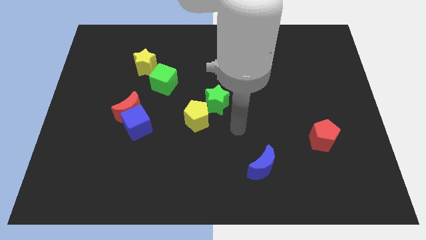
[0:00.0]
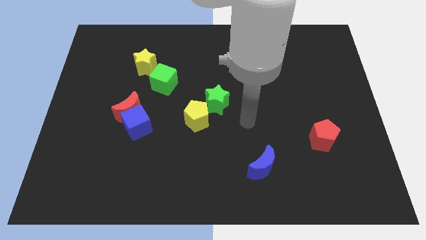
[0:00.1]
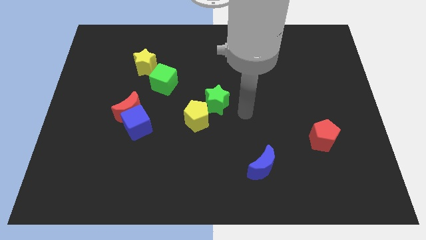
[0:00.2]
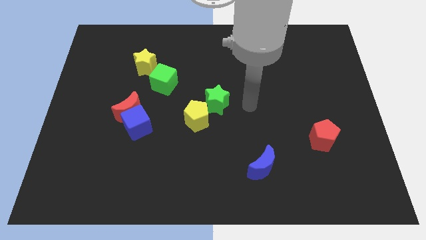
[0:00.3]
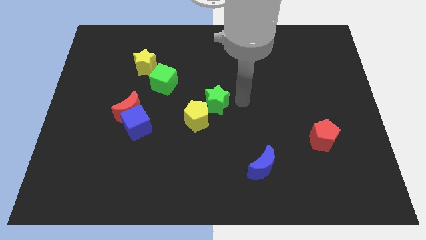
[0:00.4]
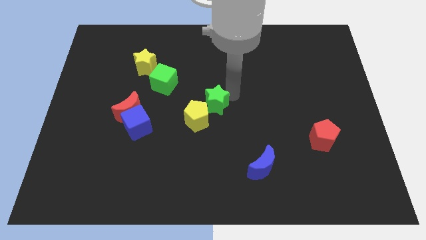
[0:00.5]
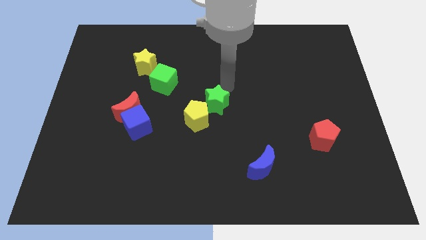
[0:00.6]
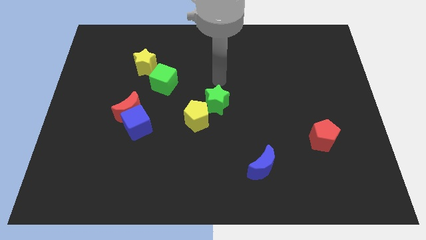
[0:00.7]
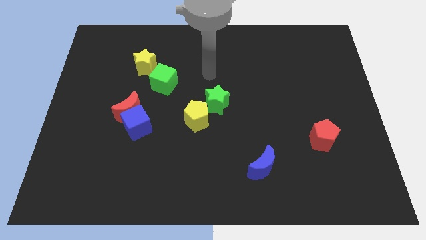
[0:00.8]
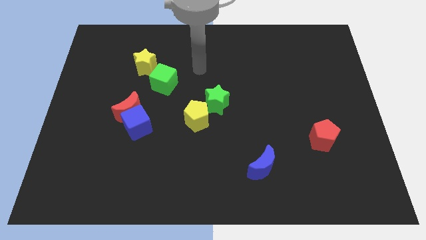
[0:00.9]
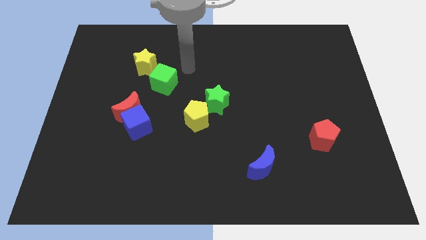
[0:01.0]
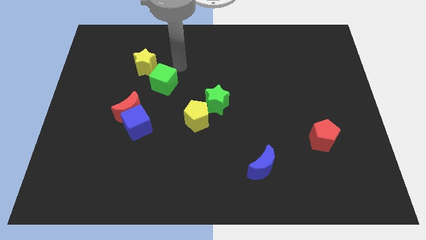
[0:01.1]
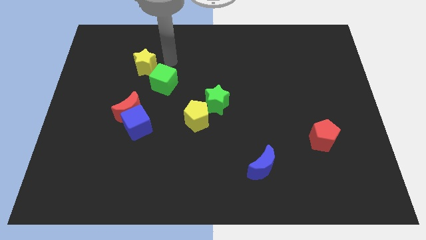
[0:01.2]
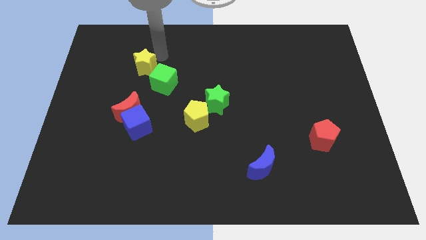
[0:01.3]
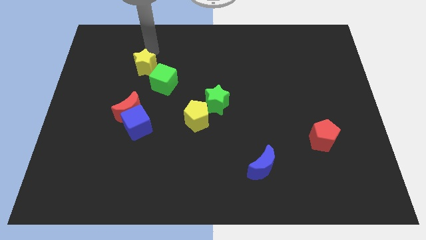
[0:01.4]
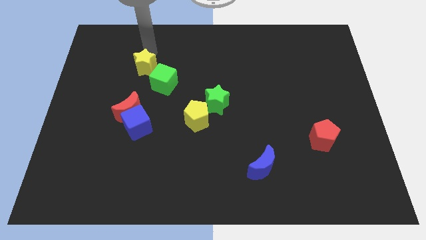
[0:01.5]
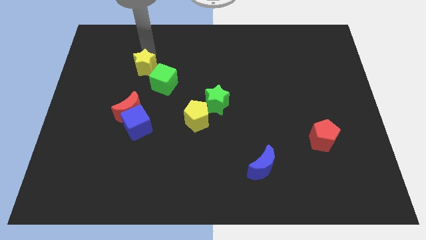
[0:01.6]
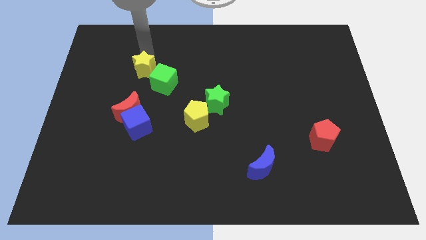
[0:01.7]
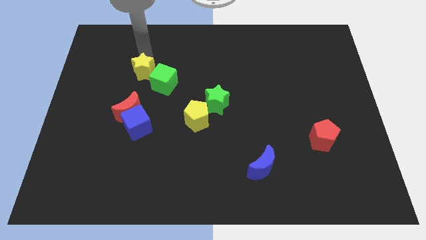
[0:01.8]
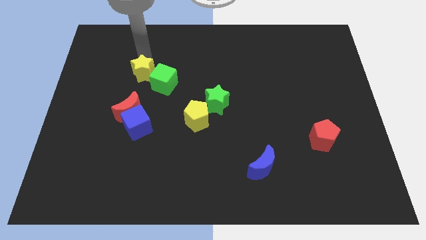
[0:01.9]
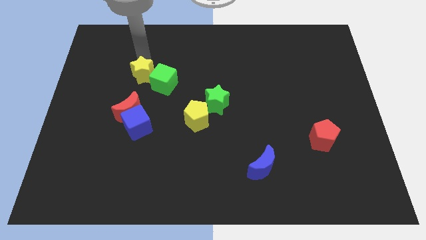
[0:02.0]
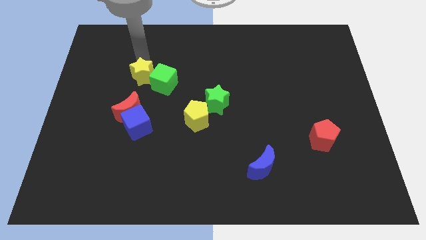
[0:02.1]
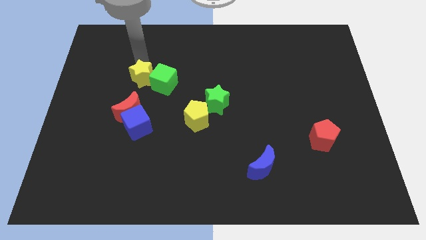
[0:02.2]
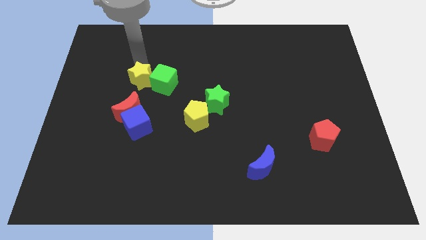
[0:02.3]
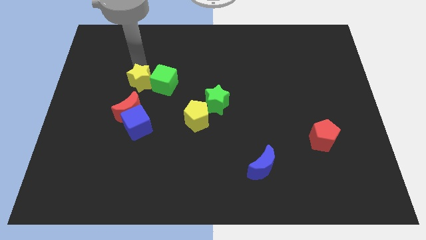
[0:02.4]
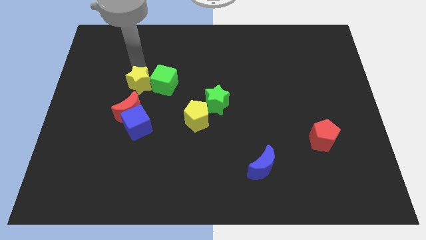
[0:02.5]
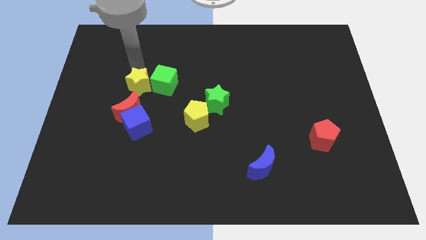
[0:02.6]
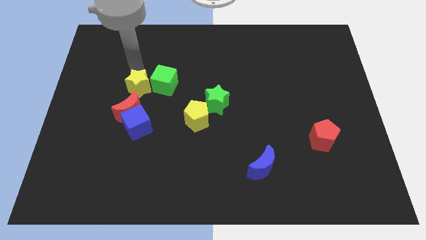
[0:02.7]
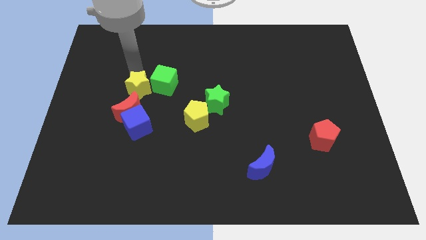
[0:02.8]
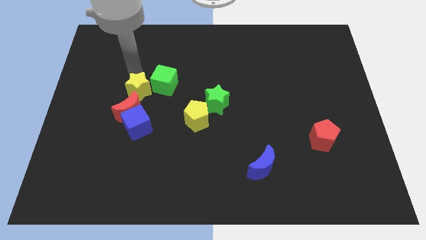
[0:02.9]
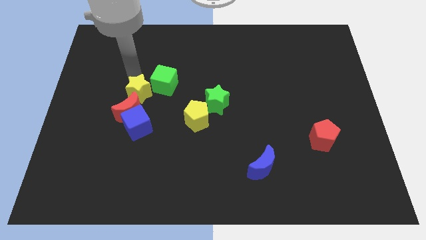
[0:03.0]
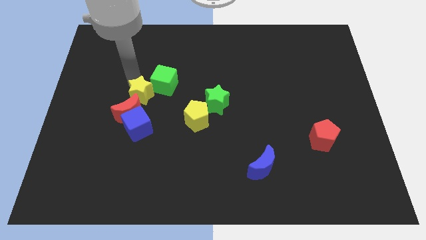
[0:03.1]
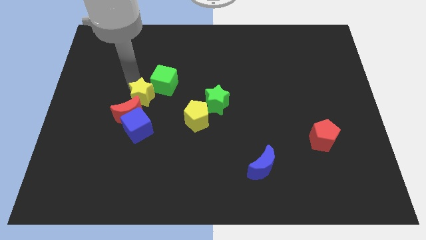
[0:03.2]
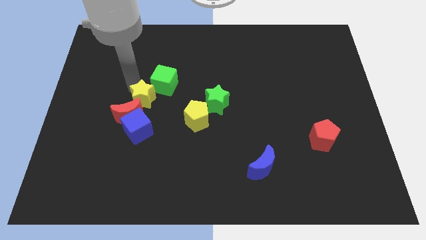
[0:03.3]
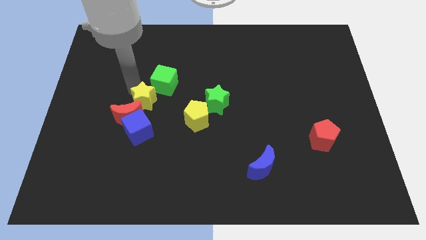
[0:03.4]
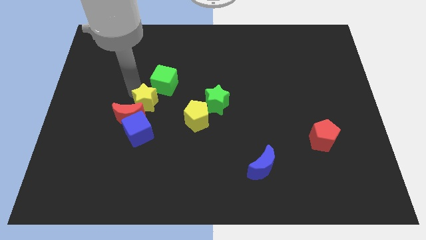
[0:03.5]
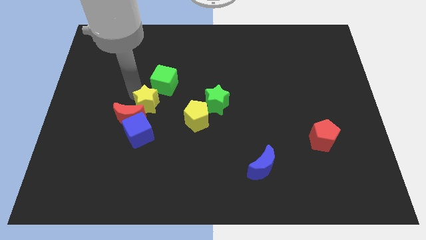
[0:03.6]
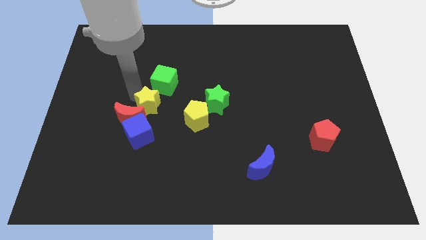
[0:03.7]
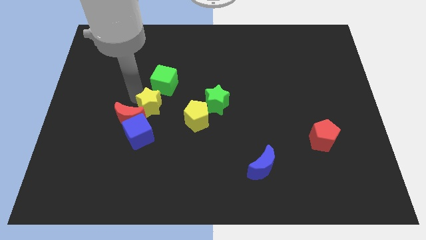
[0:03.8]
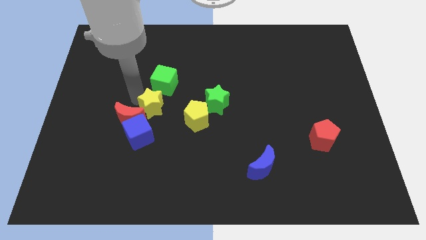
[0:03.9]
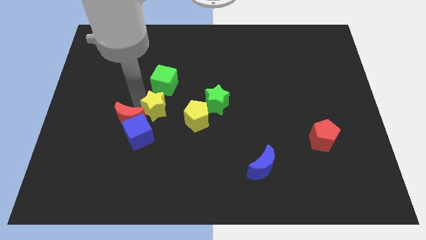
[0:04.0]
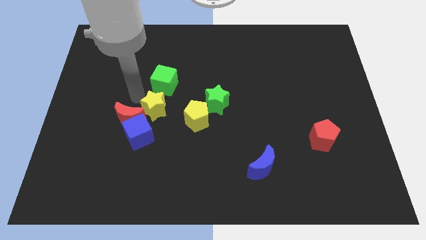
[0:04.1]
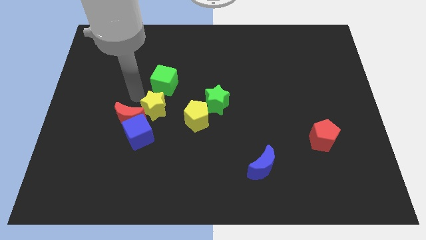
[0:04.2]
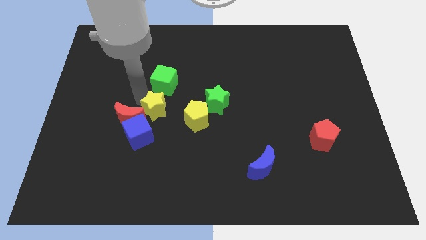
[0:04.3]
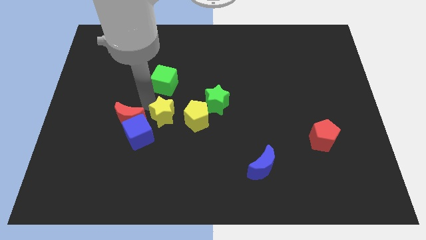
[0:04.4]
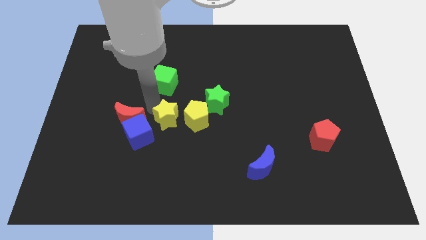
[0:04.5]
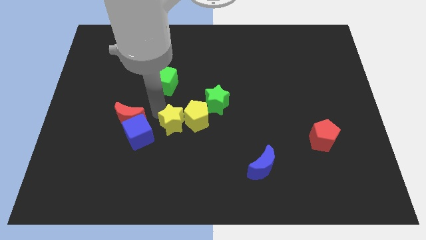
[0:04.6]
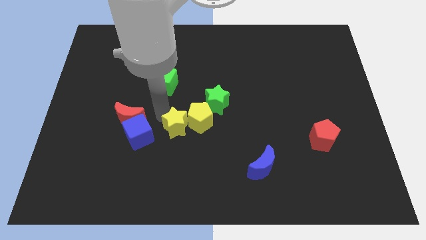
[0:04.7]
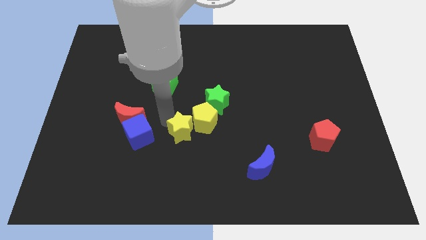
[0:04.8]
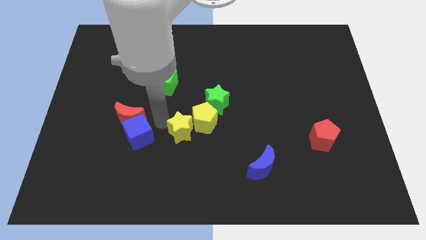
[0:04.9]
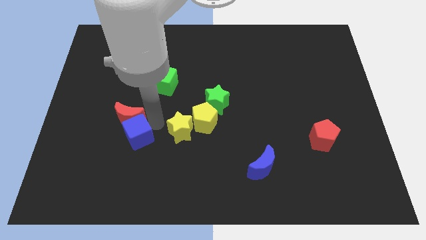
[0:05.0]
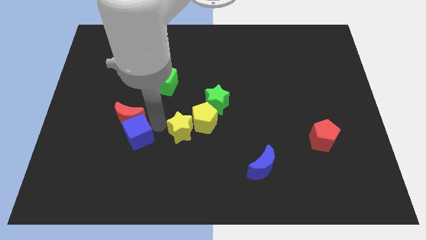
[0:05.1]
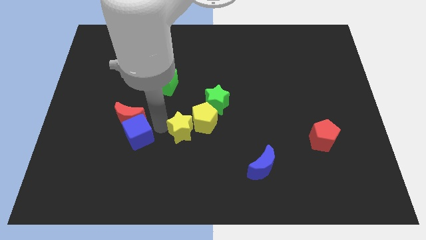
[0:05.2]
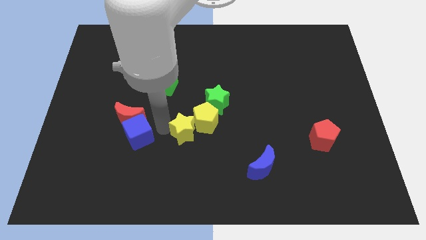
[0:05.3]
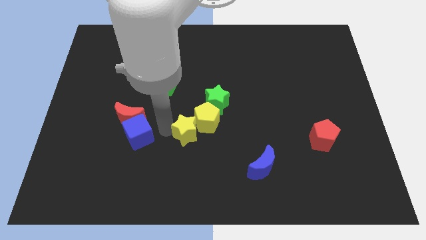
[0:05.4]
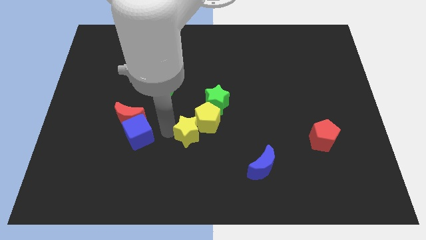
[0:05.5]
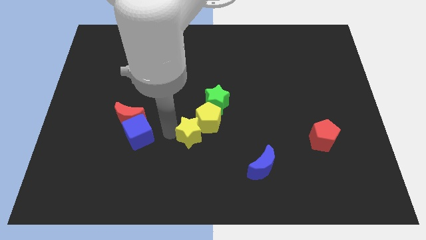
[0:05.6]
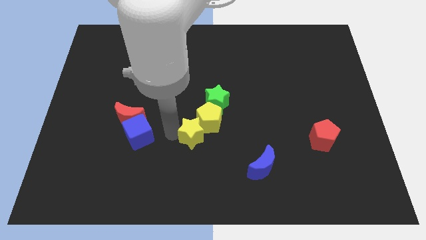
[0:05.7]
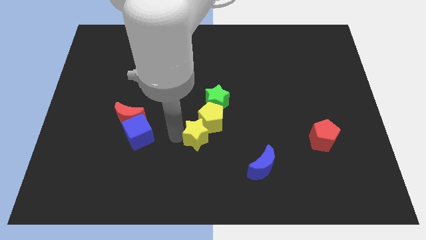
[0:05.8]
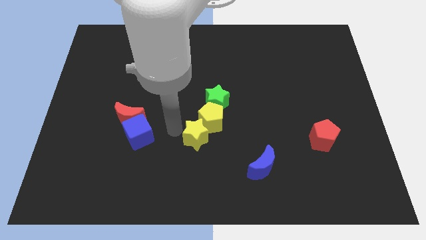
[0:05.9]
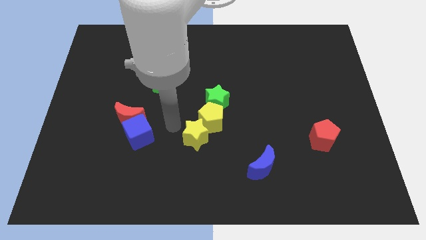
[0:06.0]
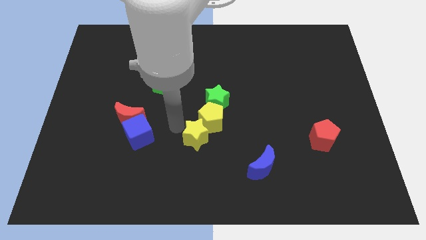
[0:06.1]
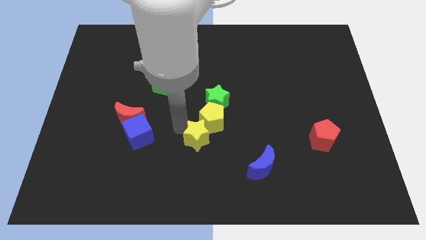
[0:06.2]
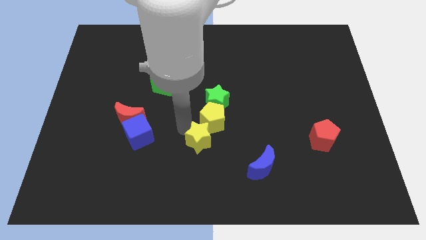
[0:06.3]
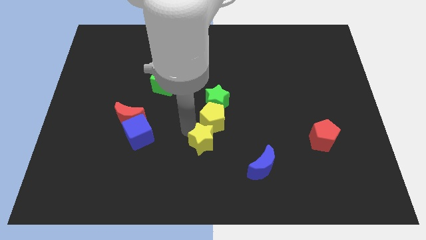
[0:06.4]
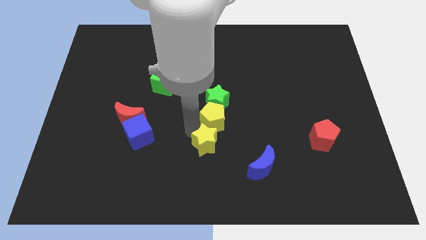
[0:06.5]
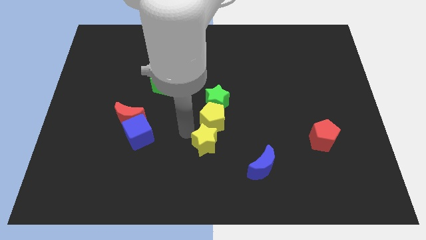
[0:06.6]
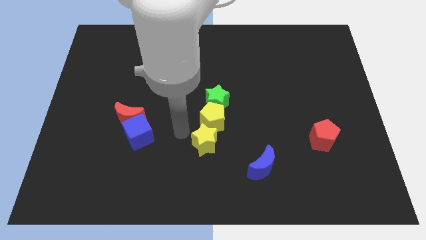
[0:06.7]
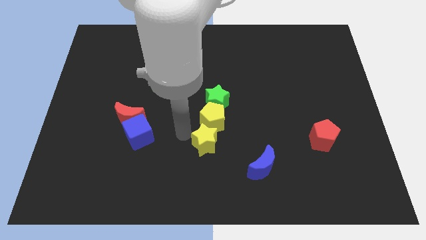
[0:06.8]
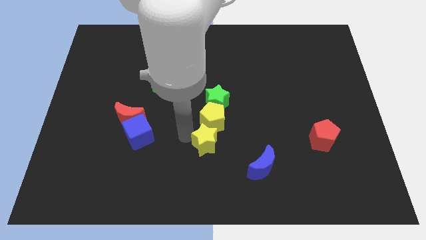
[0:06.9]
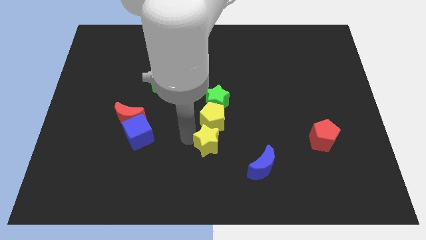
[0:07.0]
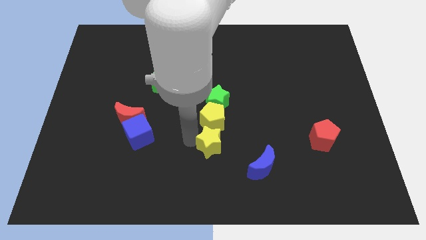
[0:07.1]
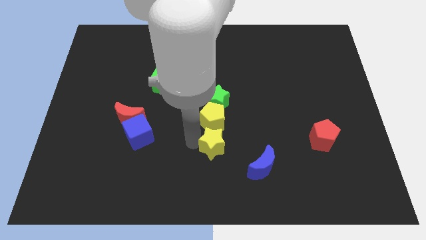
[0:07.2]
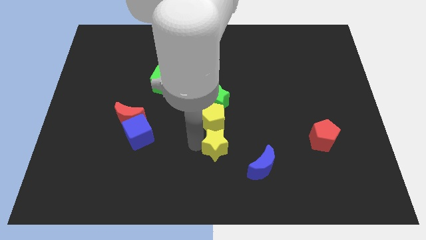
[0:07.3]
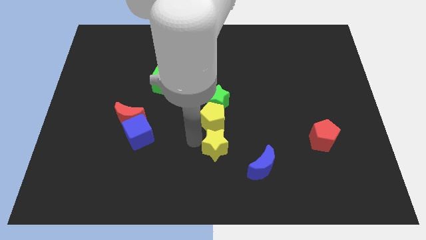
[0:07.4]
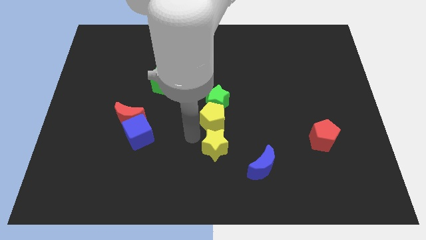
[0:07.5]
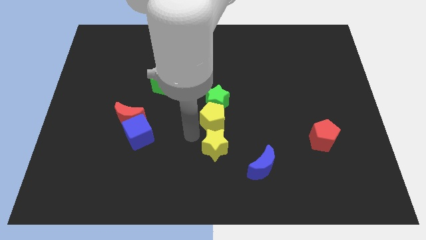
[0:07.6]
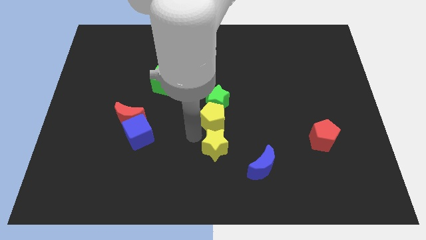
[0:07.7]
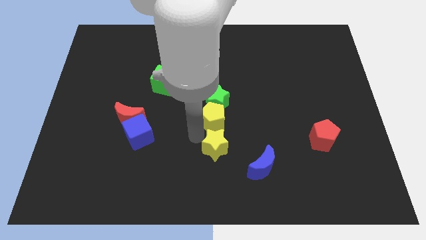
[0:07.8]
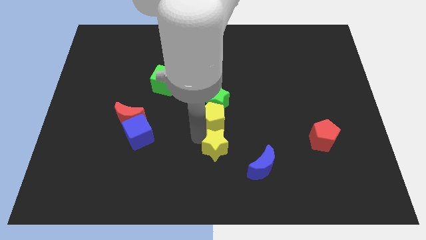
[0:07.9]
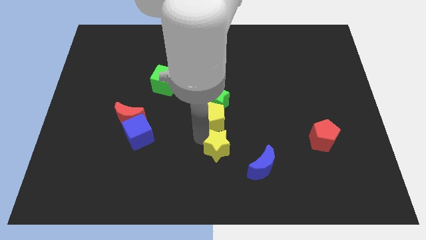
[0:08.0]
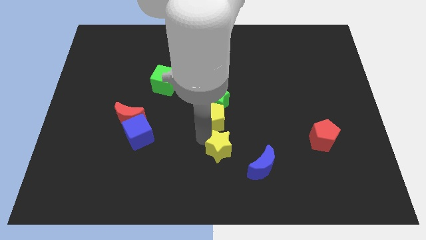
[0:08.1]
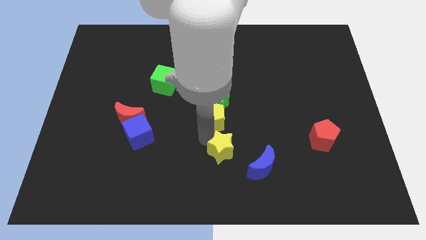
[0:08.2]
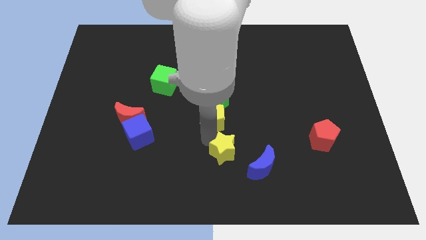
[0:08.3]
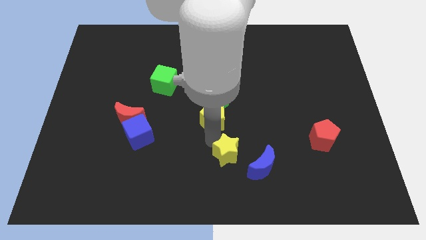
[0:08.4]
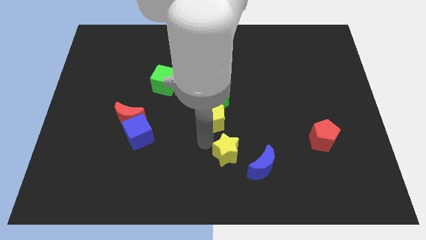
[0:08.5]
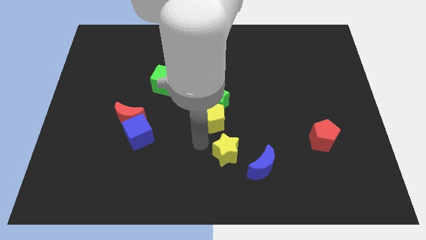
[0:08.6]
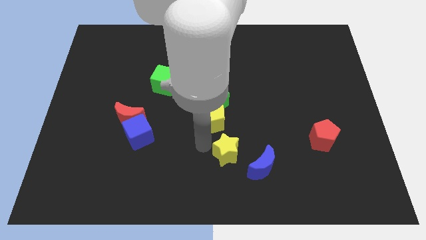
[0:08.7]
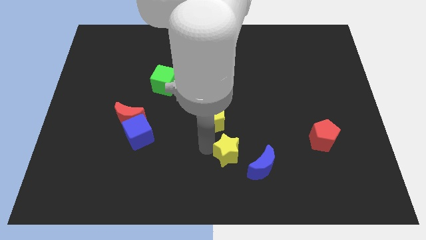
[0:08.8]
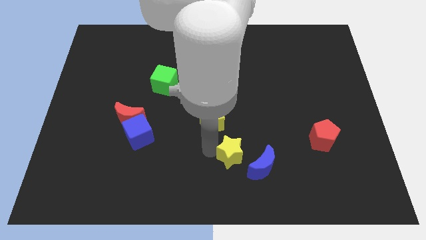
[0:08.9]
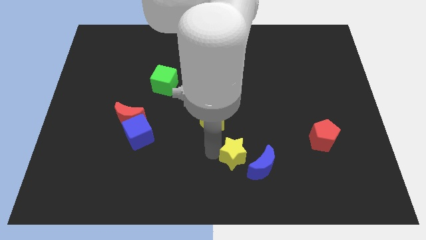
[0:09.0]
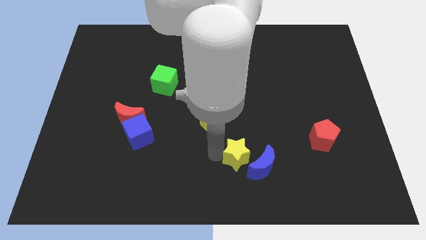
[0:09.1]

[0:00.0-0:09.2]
push the yellow star next to the blue moon
